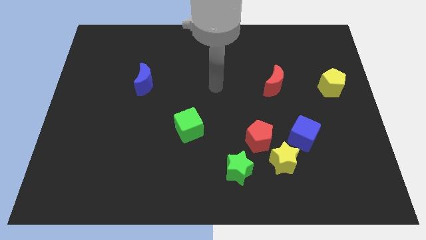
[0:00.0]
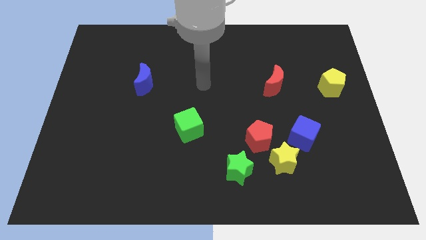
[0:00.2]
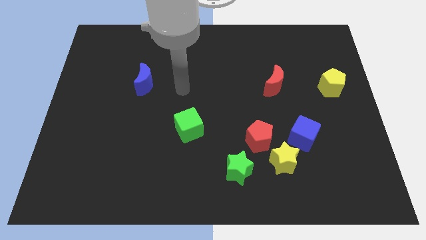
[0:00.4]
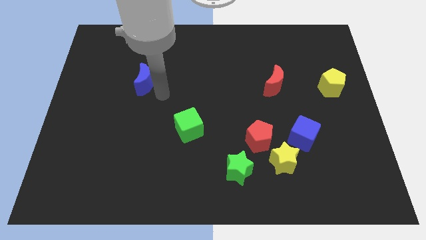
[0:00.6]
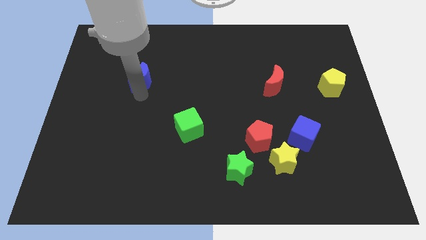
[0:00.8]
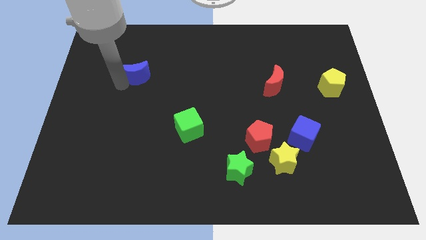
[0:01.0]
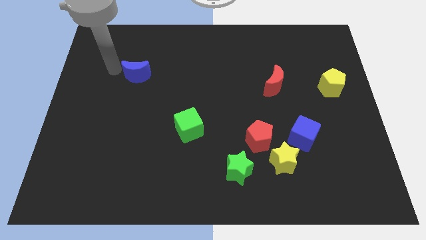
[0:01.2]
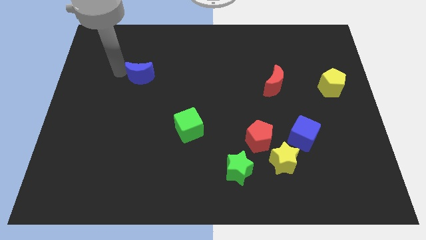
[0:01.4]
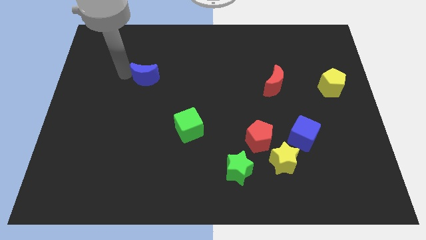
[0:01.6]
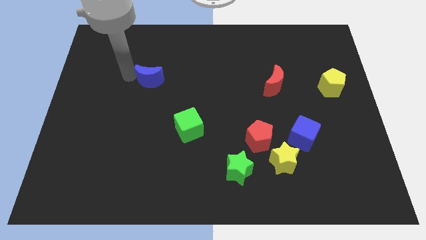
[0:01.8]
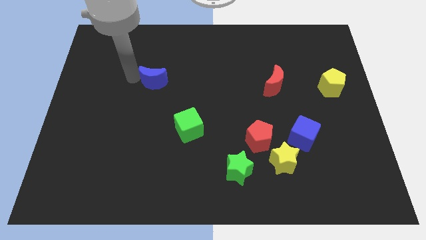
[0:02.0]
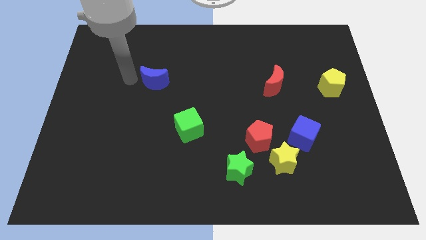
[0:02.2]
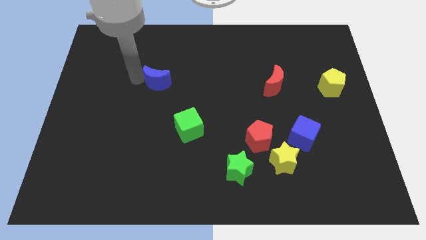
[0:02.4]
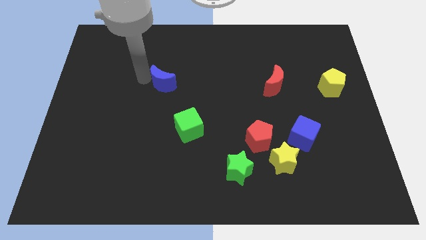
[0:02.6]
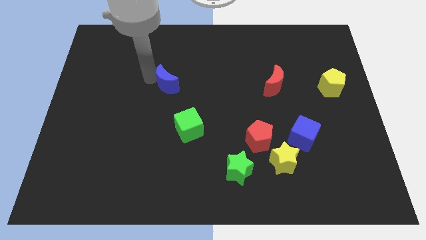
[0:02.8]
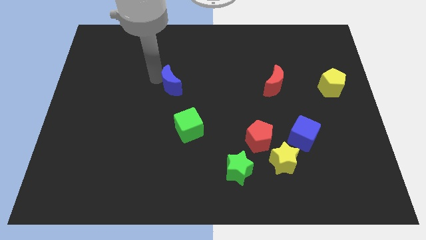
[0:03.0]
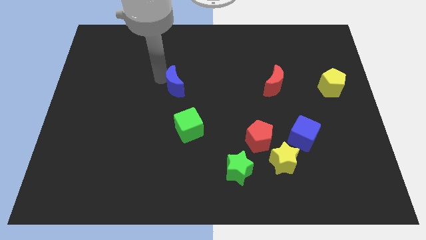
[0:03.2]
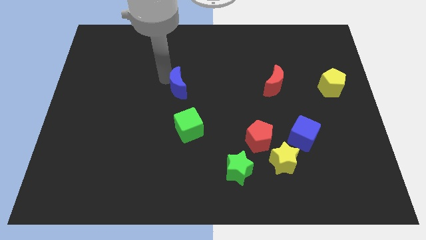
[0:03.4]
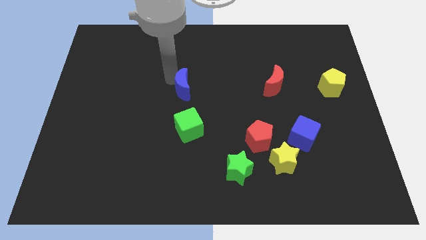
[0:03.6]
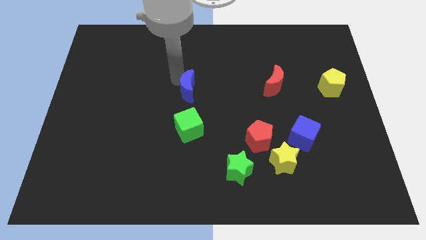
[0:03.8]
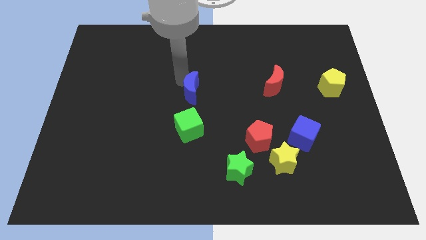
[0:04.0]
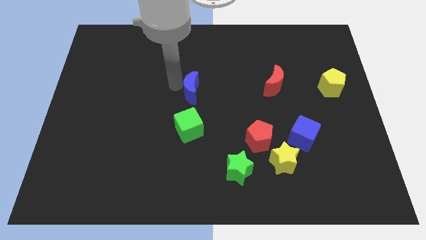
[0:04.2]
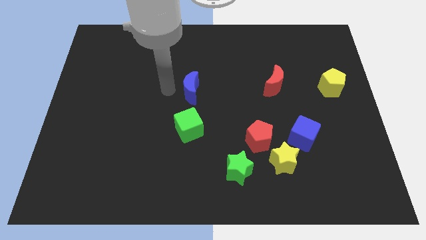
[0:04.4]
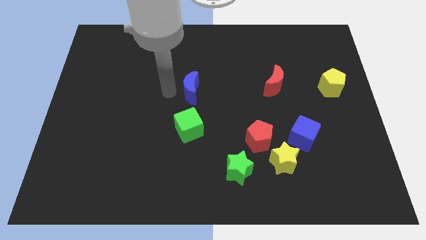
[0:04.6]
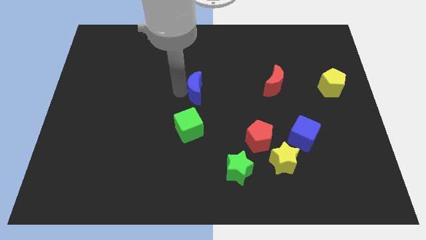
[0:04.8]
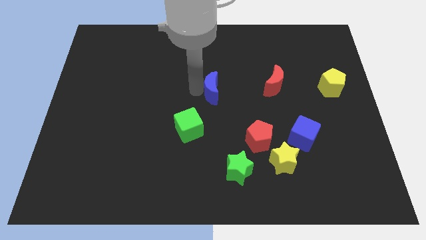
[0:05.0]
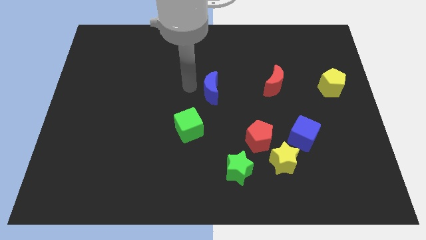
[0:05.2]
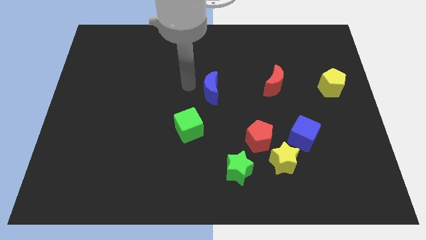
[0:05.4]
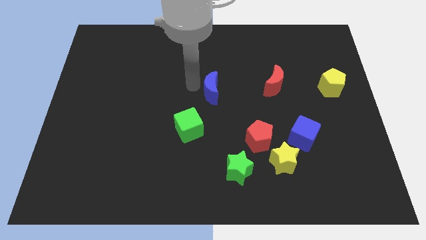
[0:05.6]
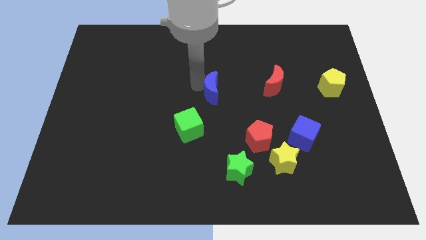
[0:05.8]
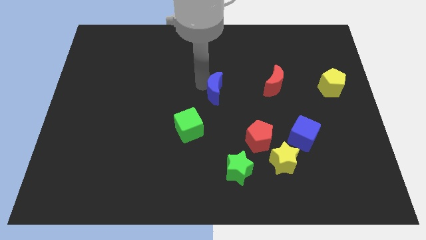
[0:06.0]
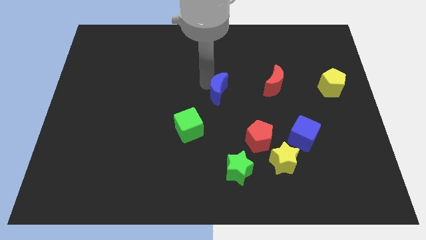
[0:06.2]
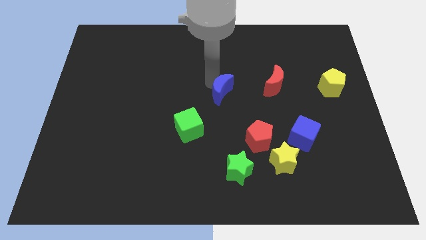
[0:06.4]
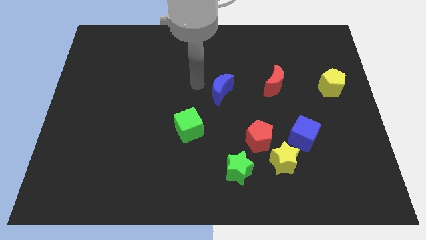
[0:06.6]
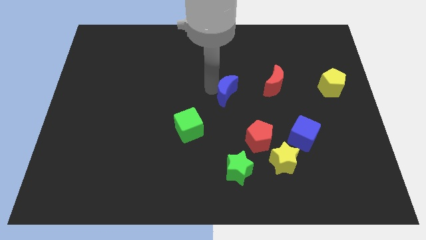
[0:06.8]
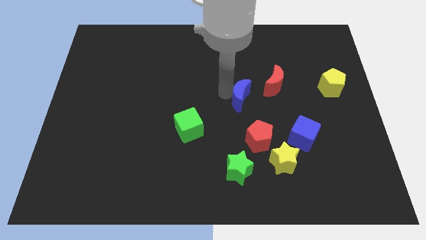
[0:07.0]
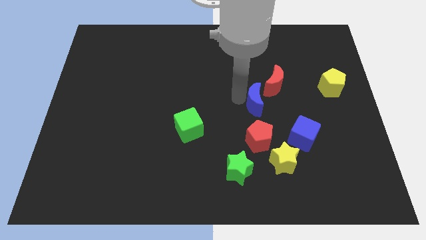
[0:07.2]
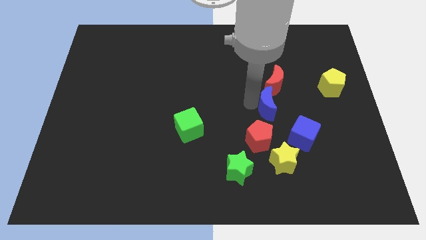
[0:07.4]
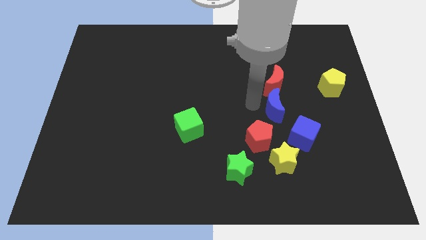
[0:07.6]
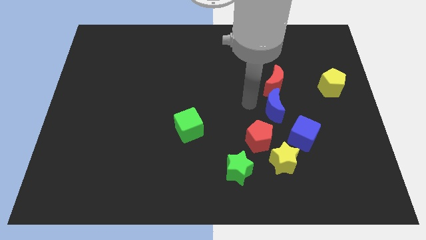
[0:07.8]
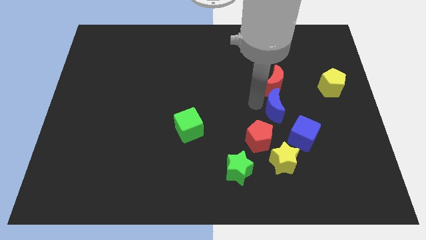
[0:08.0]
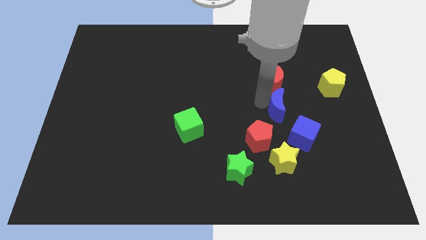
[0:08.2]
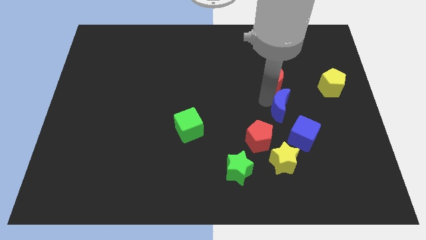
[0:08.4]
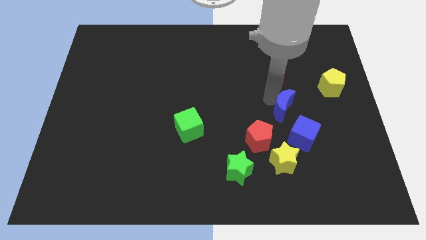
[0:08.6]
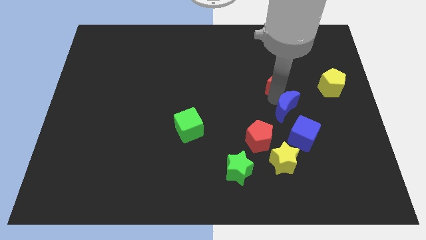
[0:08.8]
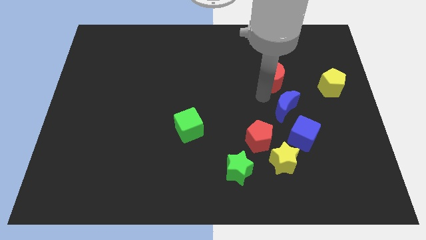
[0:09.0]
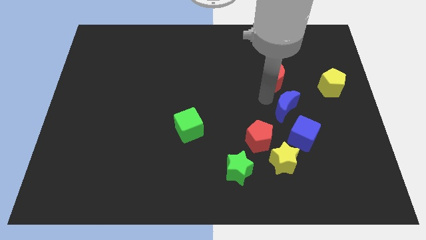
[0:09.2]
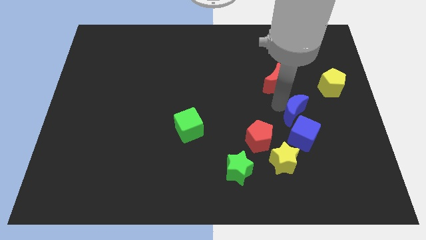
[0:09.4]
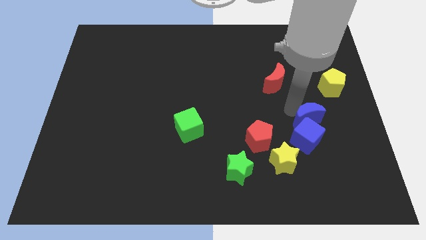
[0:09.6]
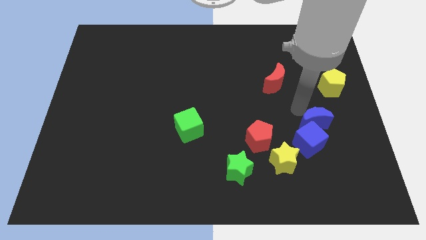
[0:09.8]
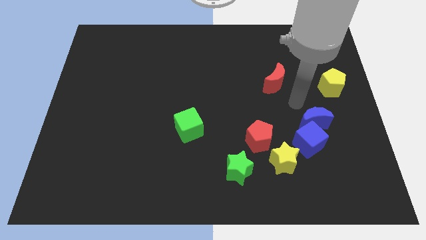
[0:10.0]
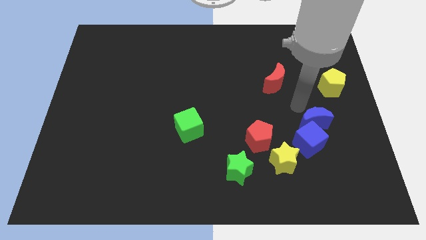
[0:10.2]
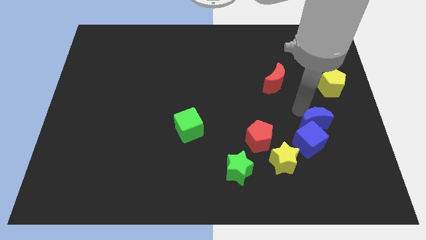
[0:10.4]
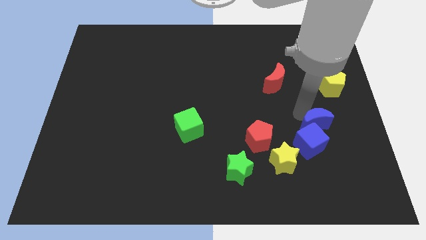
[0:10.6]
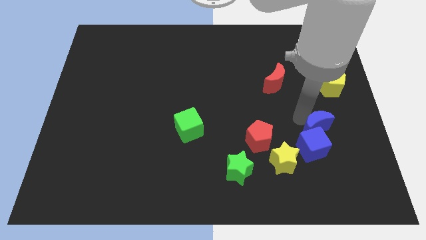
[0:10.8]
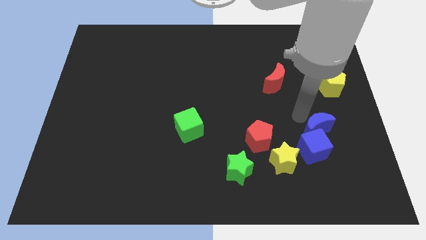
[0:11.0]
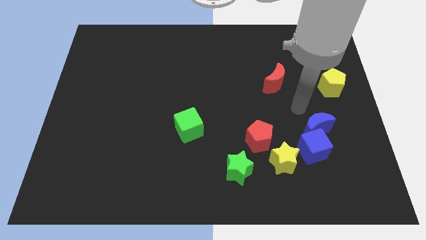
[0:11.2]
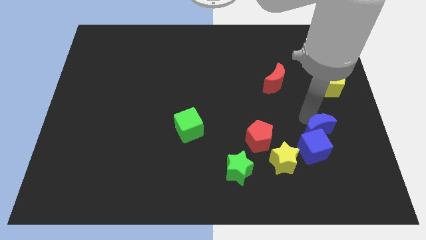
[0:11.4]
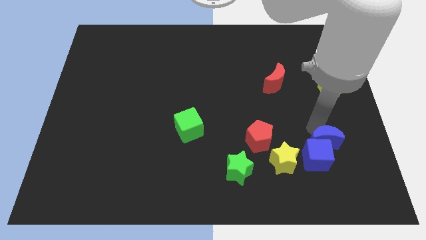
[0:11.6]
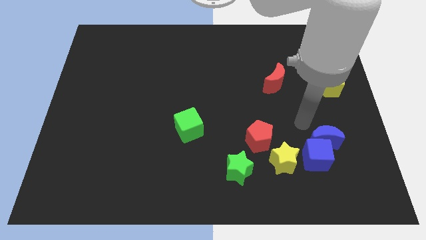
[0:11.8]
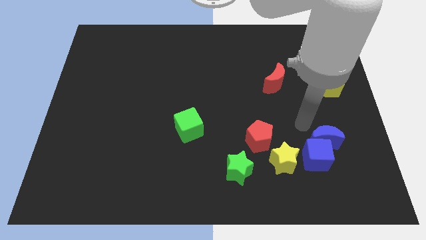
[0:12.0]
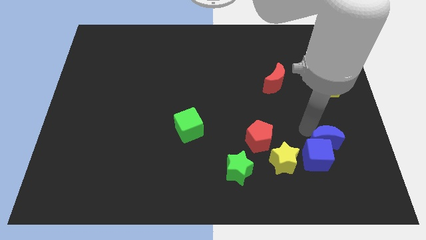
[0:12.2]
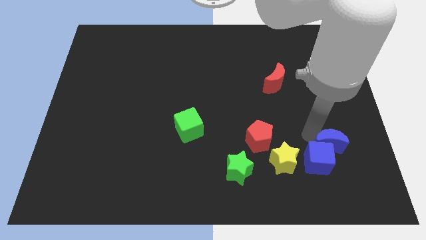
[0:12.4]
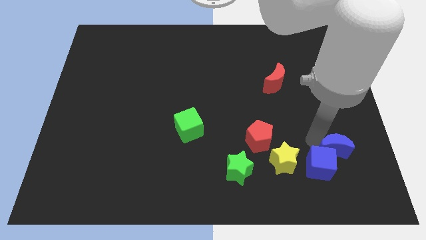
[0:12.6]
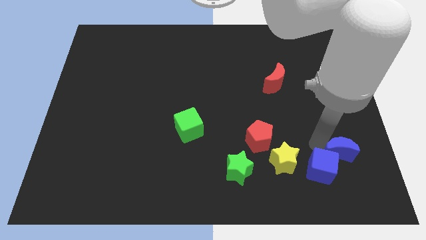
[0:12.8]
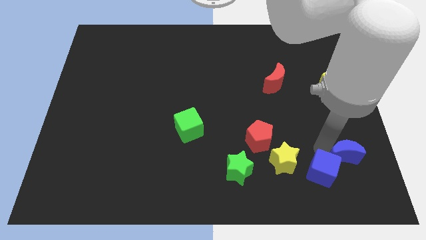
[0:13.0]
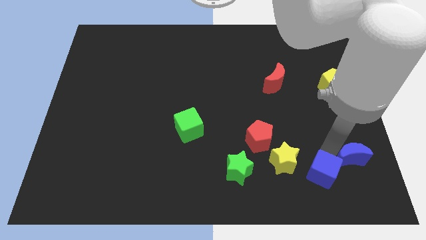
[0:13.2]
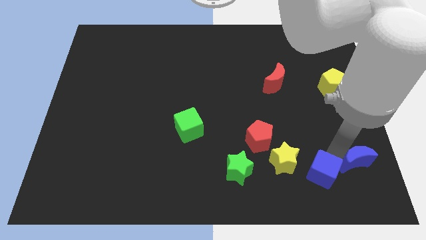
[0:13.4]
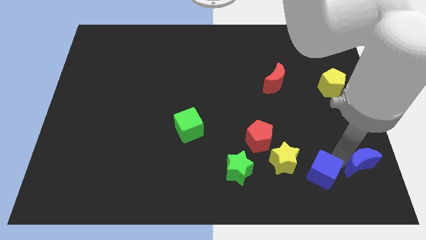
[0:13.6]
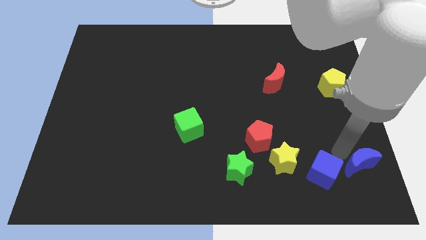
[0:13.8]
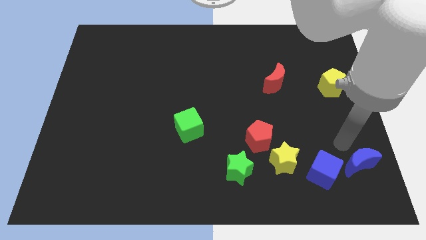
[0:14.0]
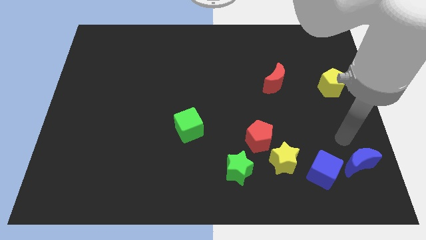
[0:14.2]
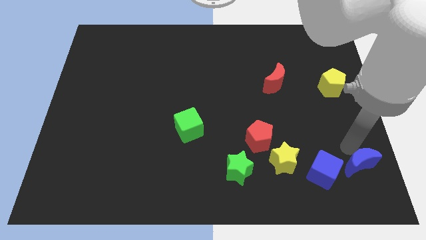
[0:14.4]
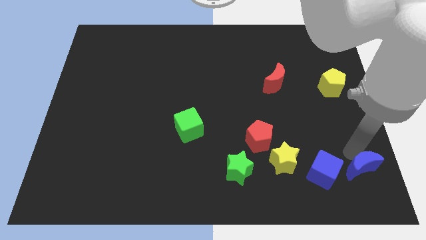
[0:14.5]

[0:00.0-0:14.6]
slide the blue moon to the bottom right

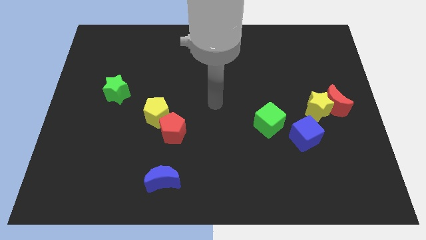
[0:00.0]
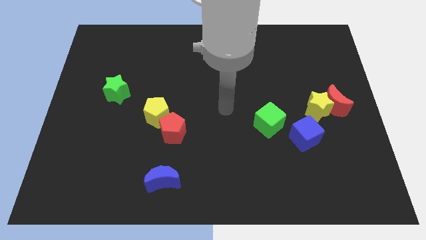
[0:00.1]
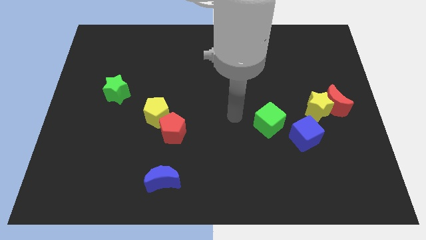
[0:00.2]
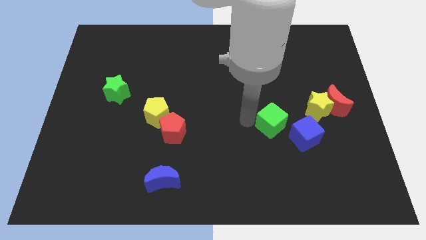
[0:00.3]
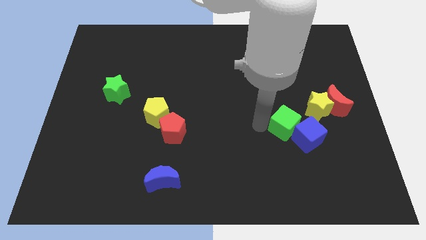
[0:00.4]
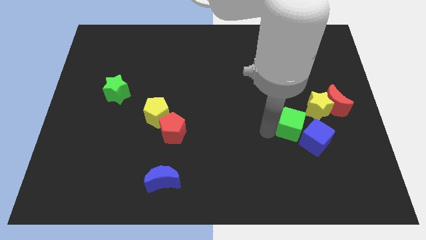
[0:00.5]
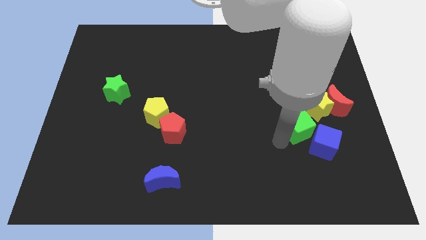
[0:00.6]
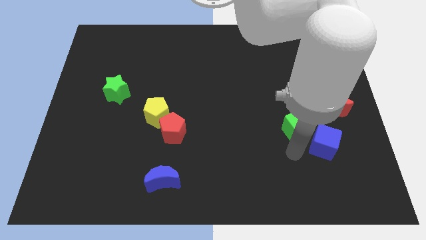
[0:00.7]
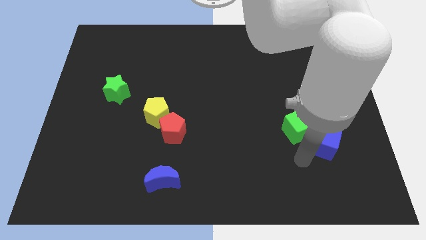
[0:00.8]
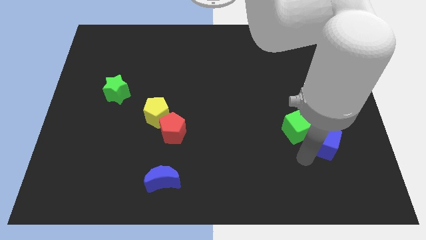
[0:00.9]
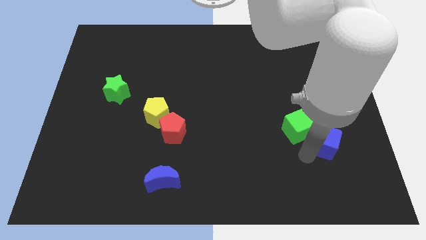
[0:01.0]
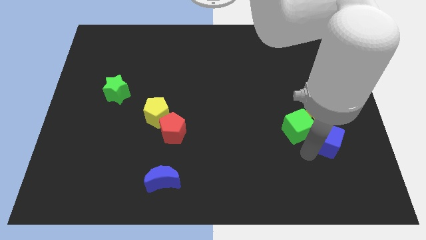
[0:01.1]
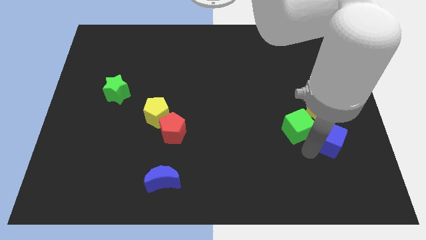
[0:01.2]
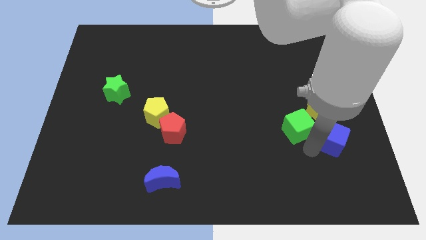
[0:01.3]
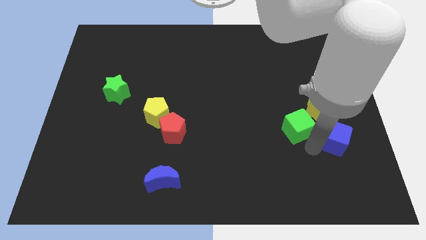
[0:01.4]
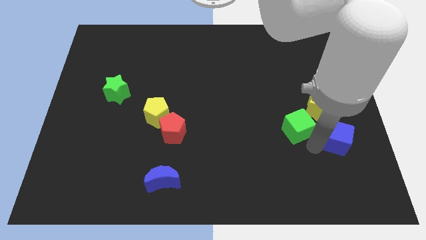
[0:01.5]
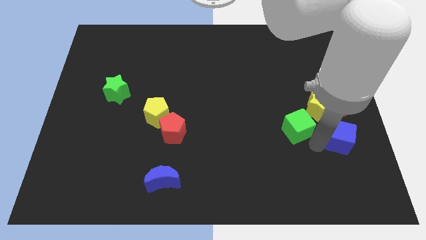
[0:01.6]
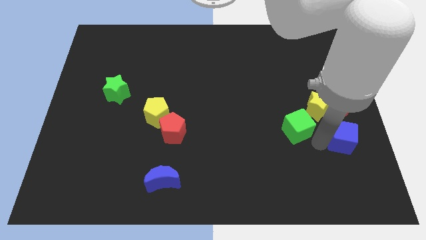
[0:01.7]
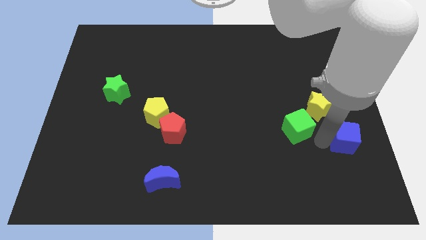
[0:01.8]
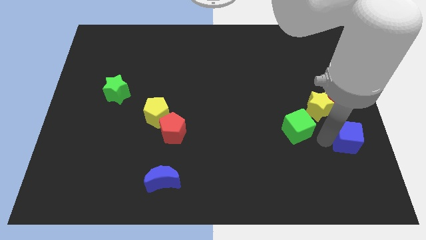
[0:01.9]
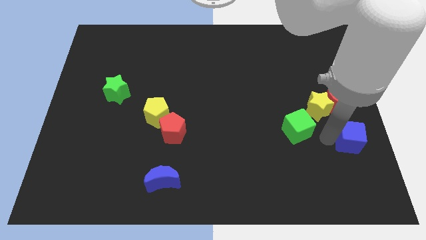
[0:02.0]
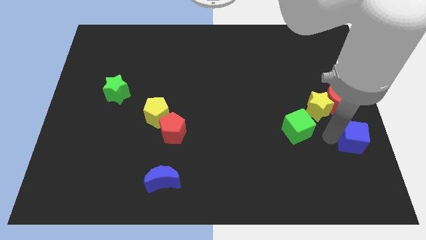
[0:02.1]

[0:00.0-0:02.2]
push the blue cube to the right side
